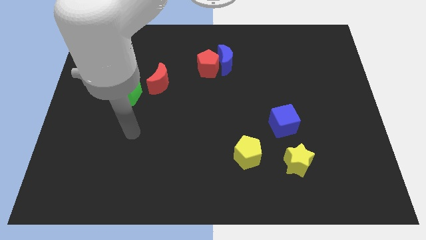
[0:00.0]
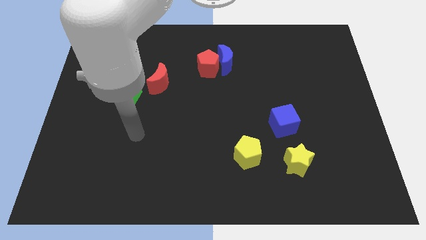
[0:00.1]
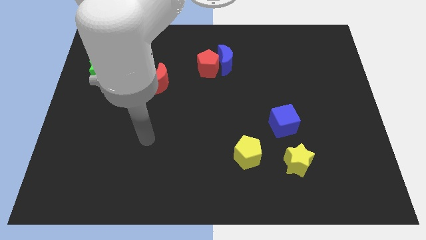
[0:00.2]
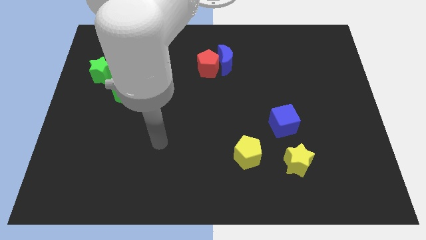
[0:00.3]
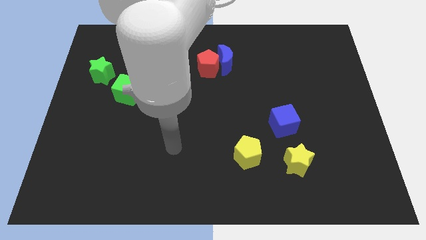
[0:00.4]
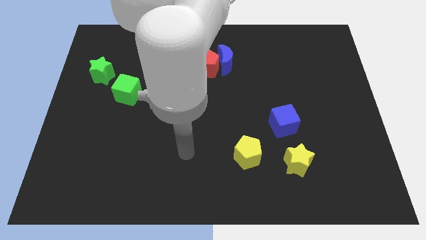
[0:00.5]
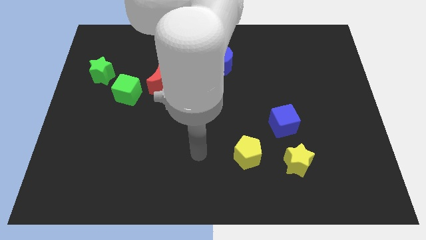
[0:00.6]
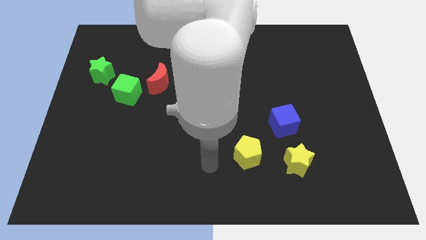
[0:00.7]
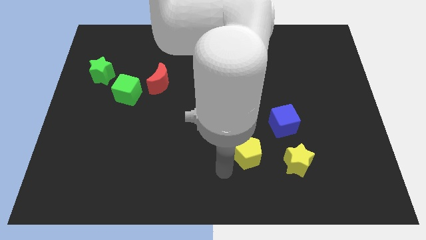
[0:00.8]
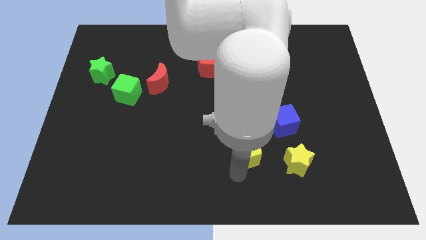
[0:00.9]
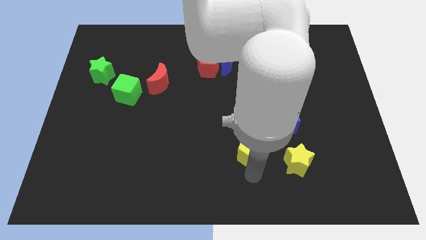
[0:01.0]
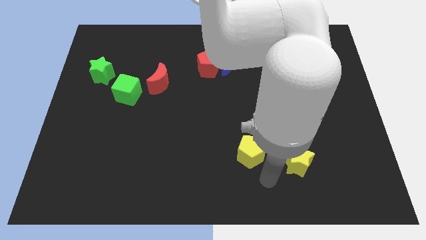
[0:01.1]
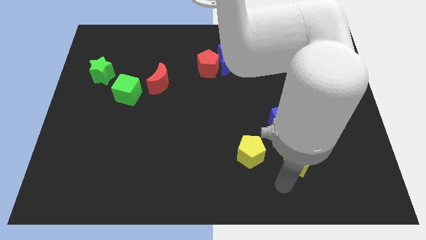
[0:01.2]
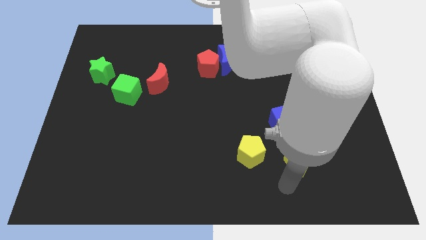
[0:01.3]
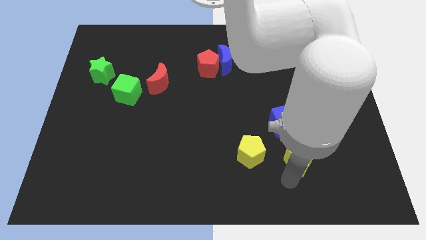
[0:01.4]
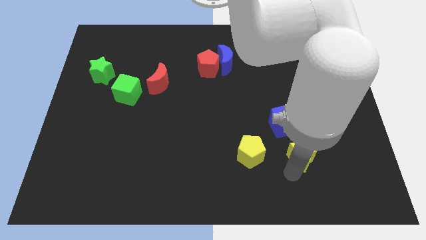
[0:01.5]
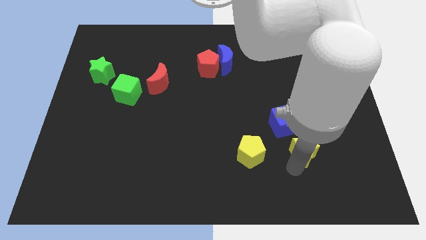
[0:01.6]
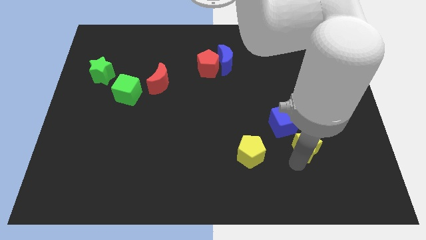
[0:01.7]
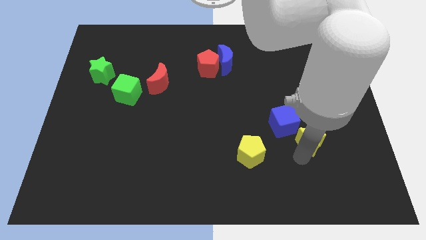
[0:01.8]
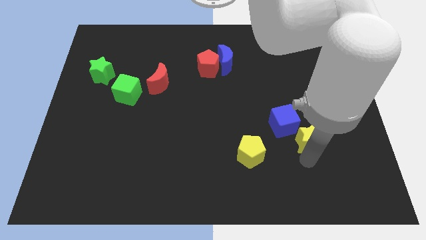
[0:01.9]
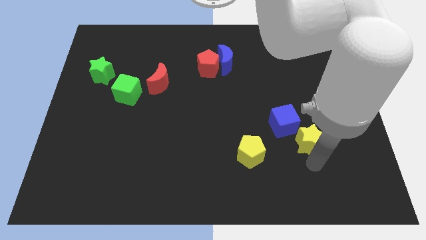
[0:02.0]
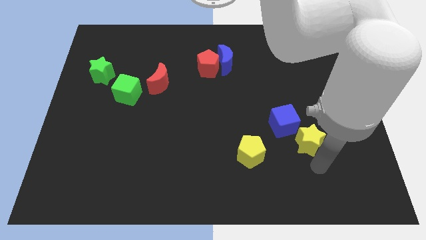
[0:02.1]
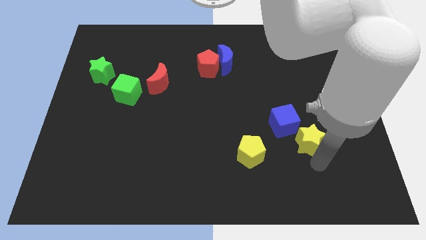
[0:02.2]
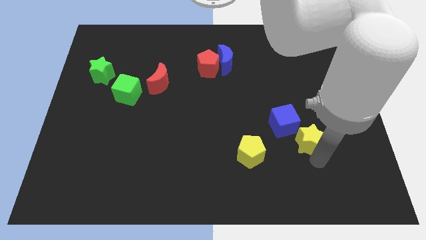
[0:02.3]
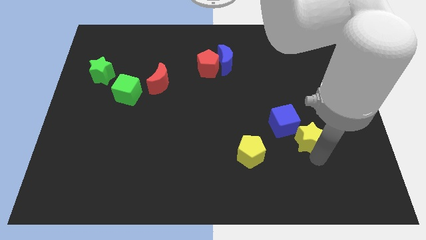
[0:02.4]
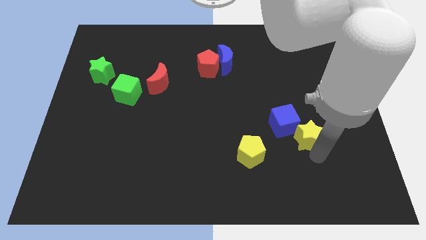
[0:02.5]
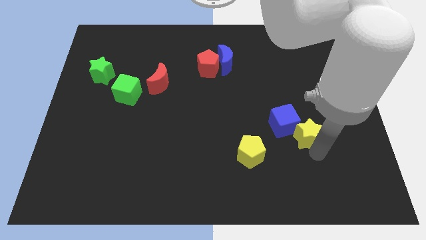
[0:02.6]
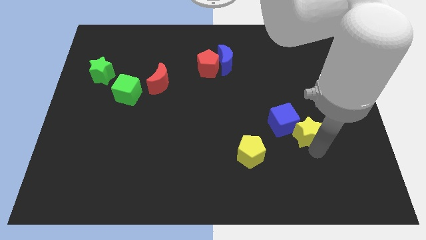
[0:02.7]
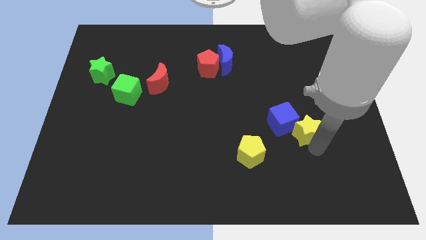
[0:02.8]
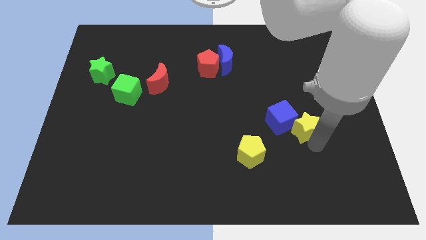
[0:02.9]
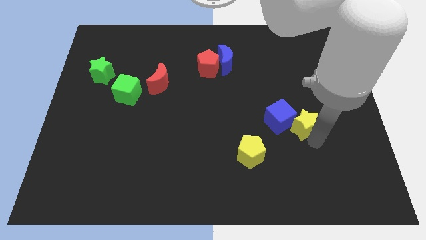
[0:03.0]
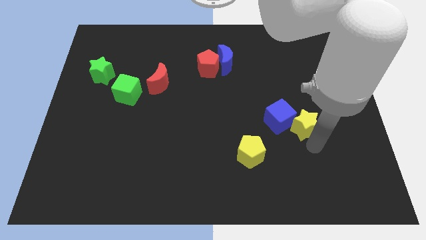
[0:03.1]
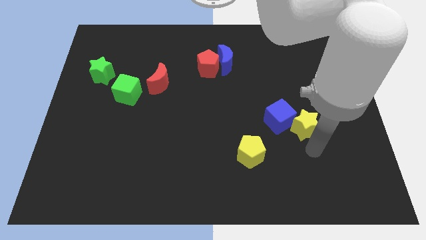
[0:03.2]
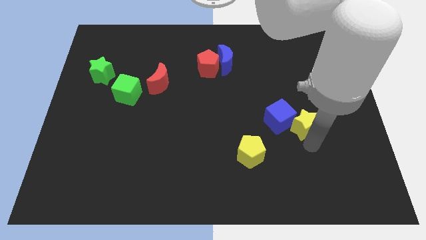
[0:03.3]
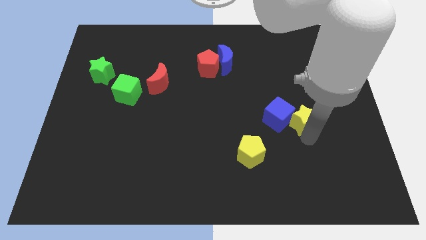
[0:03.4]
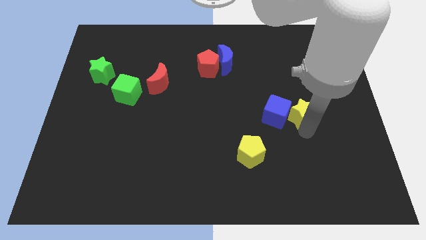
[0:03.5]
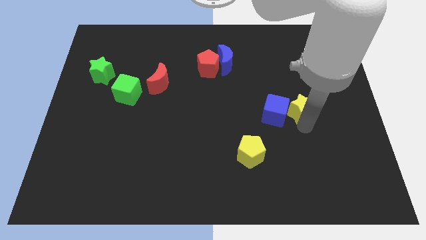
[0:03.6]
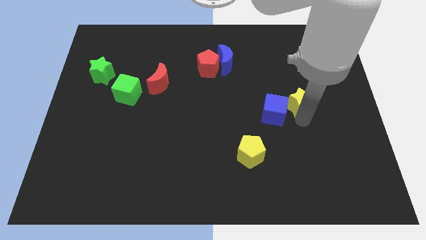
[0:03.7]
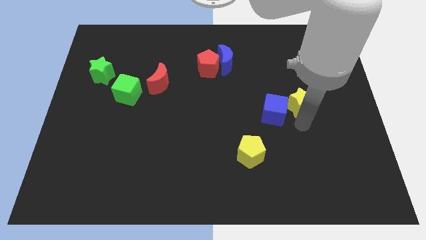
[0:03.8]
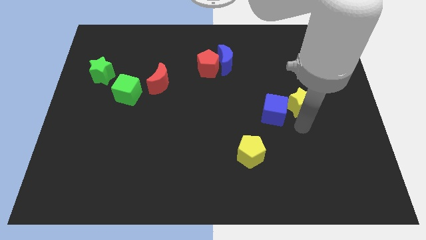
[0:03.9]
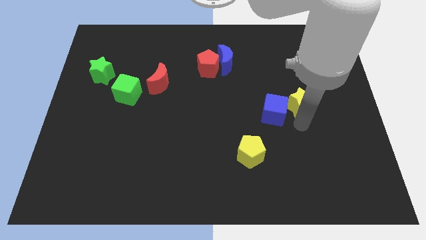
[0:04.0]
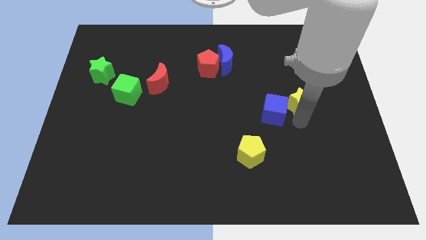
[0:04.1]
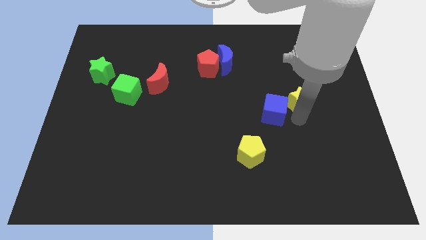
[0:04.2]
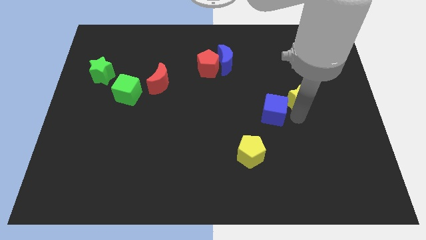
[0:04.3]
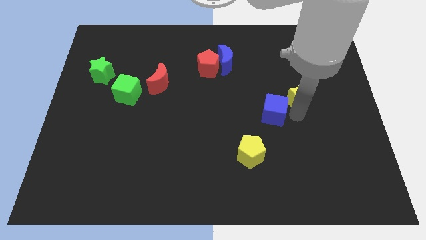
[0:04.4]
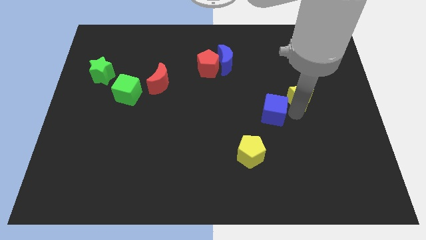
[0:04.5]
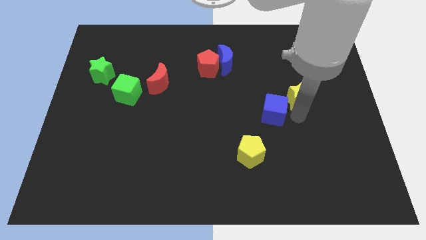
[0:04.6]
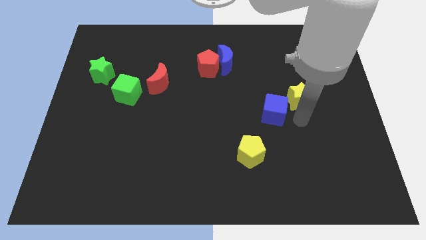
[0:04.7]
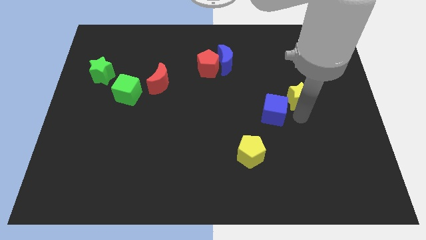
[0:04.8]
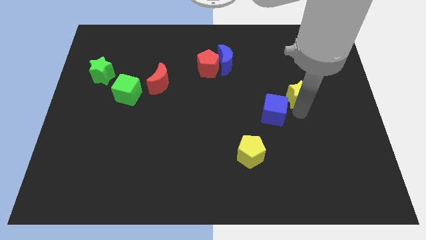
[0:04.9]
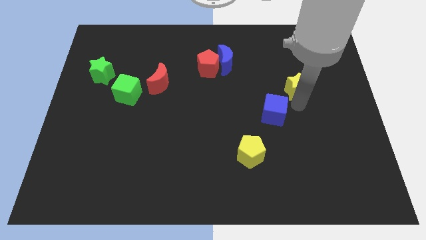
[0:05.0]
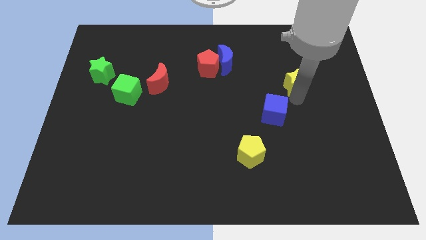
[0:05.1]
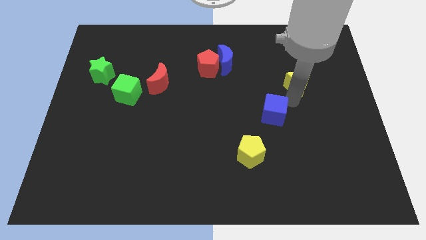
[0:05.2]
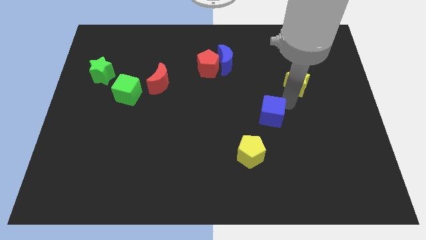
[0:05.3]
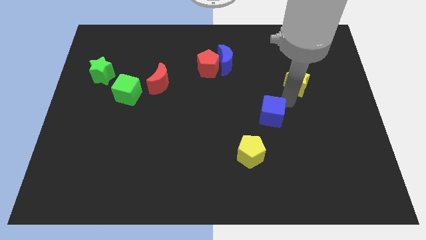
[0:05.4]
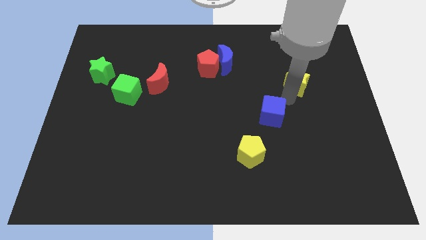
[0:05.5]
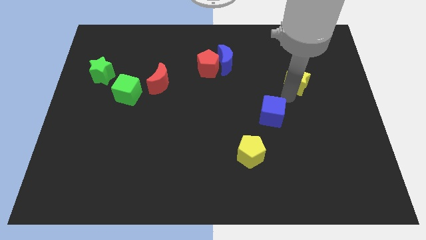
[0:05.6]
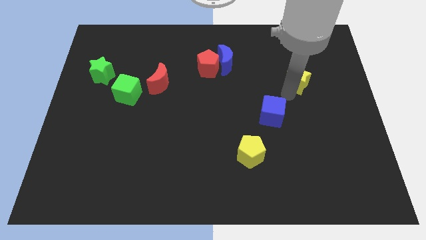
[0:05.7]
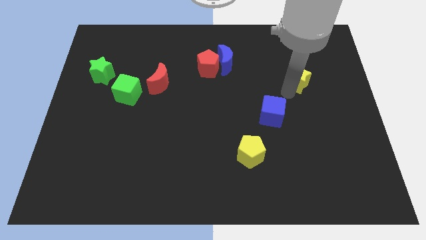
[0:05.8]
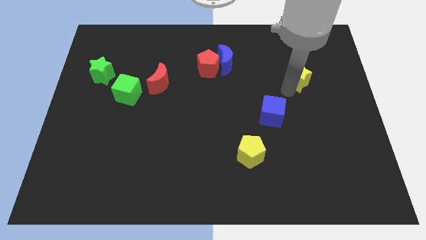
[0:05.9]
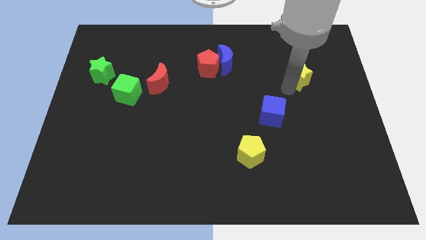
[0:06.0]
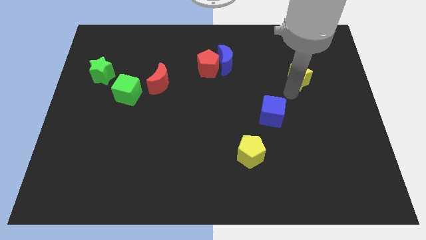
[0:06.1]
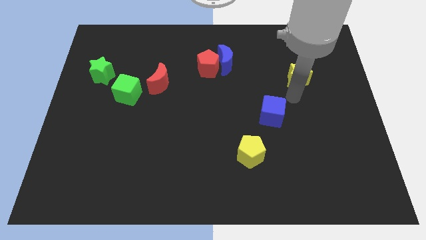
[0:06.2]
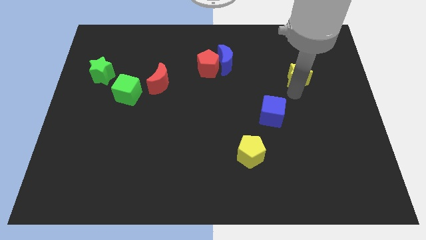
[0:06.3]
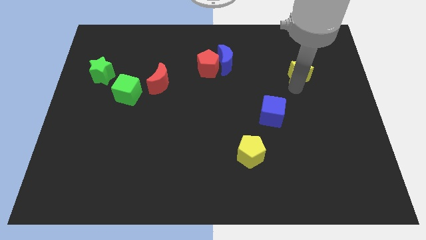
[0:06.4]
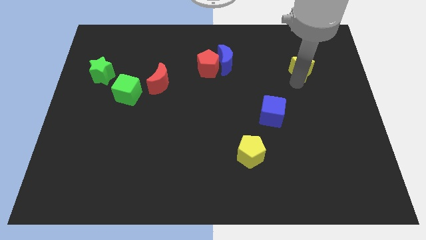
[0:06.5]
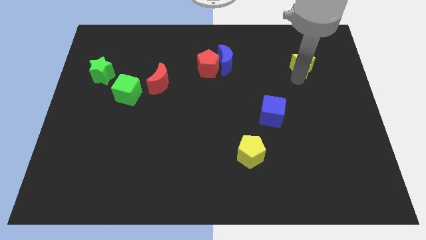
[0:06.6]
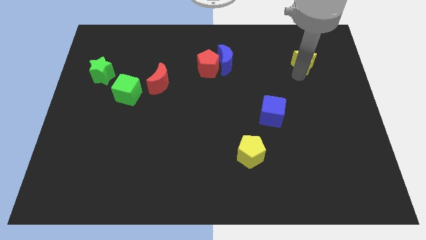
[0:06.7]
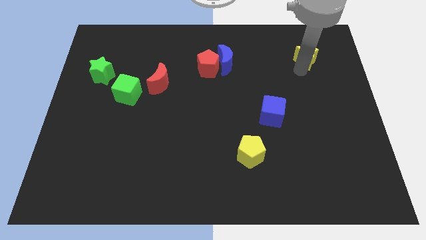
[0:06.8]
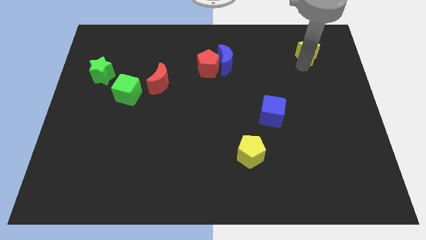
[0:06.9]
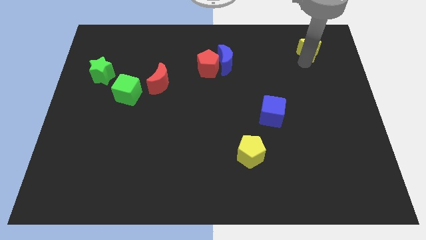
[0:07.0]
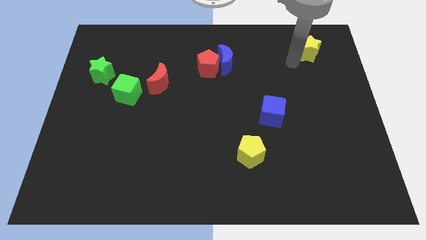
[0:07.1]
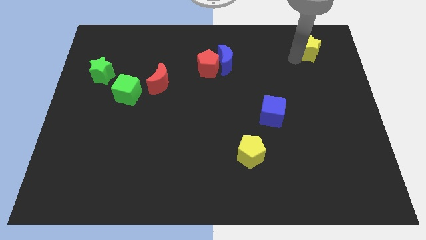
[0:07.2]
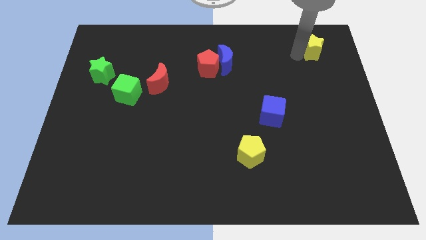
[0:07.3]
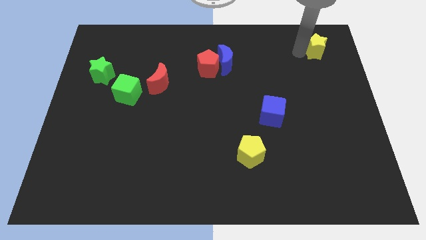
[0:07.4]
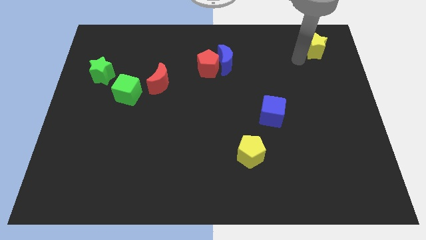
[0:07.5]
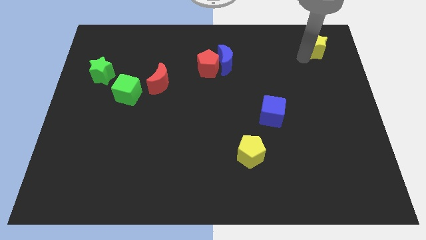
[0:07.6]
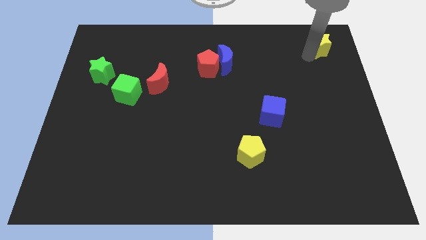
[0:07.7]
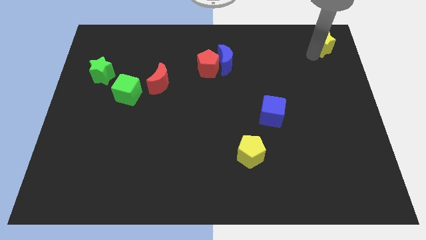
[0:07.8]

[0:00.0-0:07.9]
push the yellow star to the top right corner
